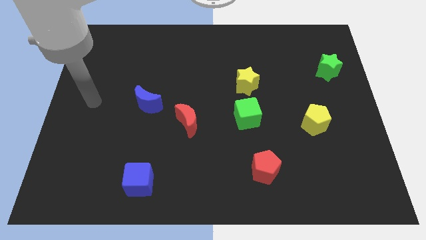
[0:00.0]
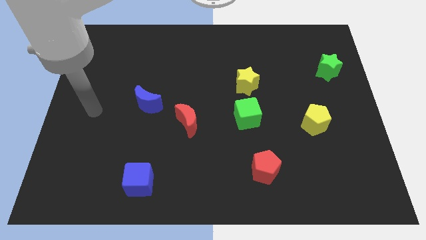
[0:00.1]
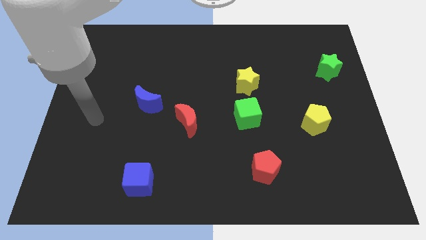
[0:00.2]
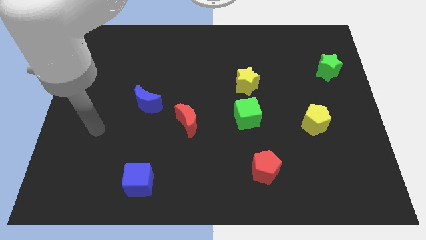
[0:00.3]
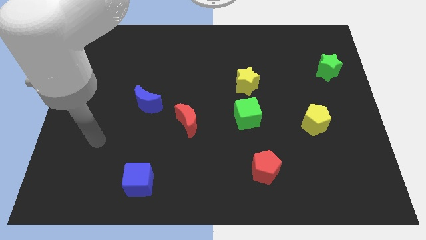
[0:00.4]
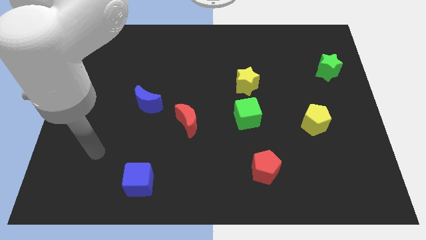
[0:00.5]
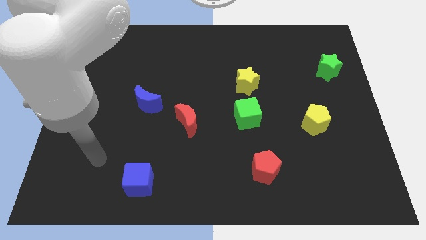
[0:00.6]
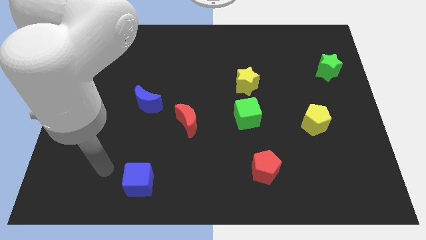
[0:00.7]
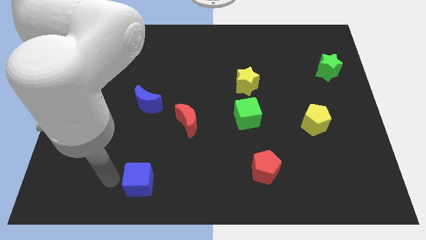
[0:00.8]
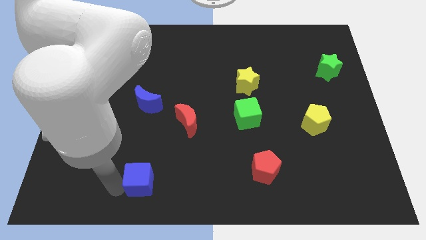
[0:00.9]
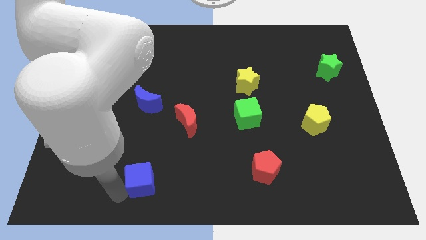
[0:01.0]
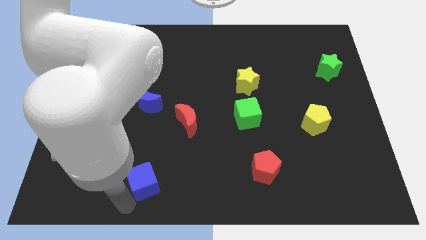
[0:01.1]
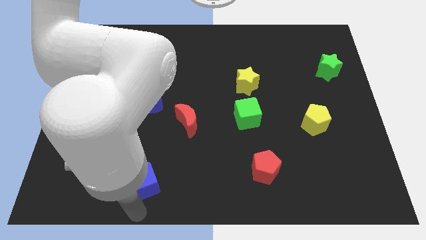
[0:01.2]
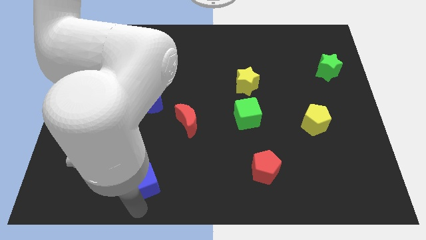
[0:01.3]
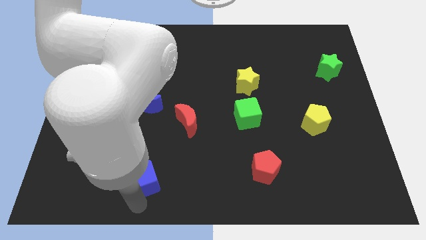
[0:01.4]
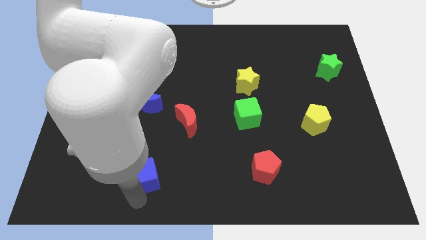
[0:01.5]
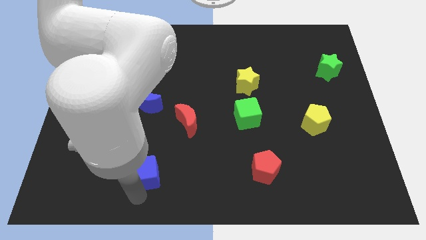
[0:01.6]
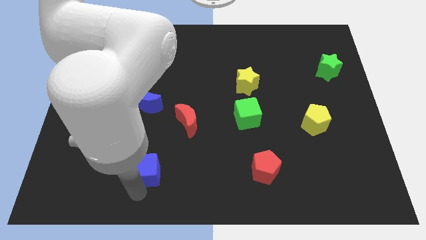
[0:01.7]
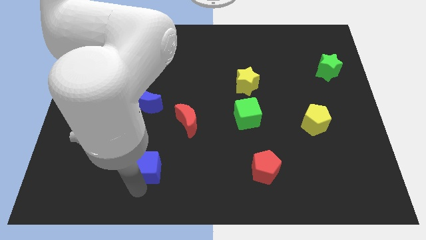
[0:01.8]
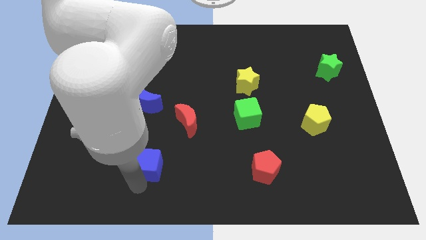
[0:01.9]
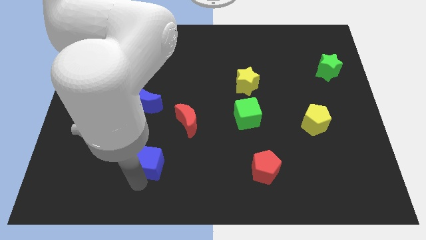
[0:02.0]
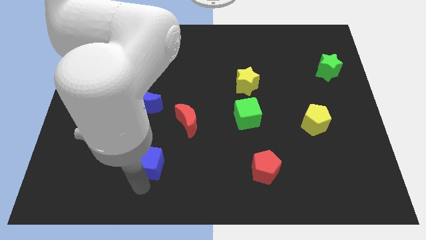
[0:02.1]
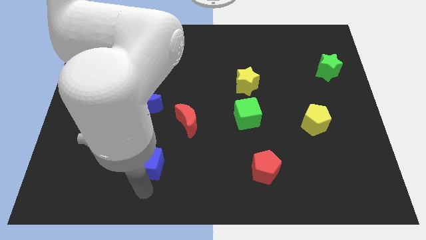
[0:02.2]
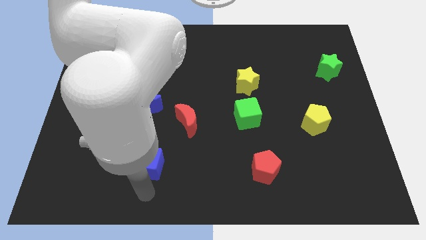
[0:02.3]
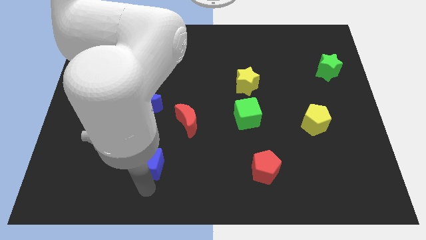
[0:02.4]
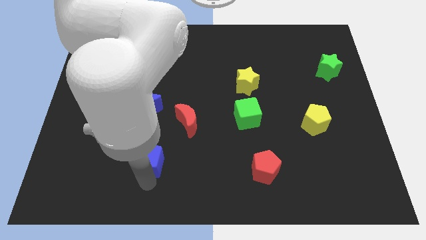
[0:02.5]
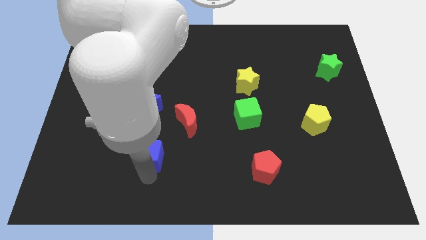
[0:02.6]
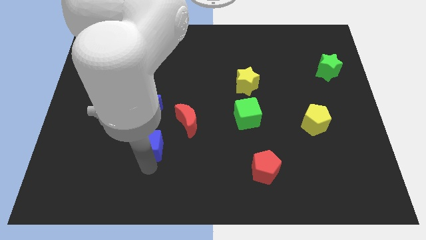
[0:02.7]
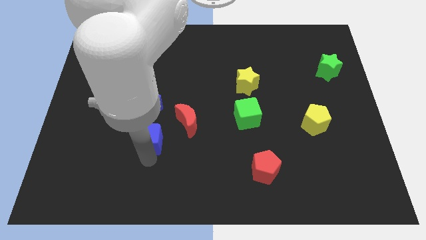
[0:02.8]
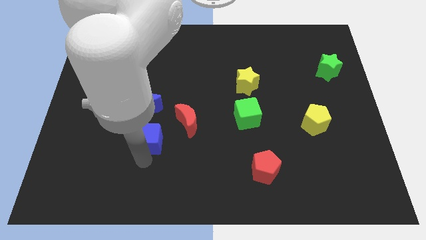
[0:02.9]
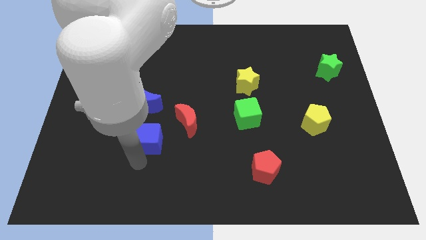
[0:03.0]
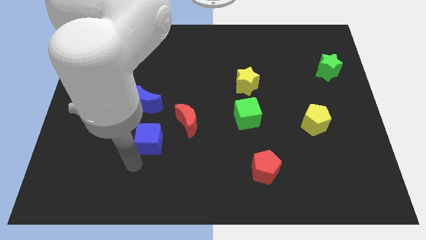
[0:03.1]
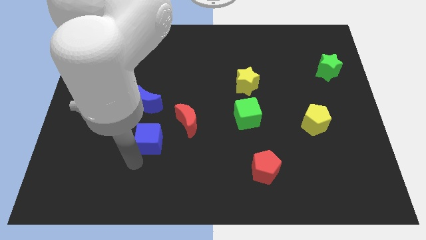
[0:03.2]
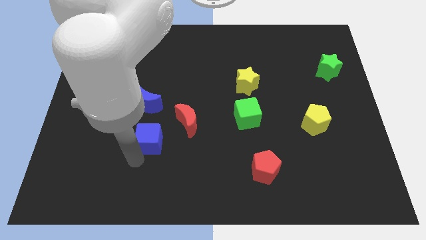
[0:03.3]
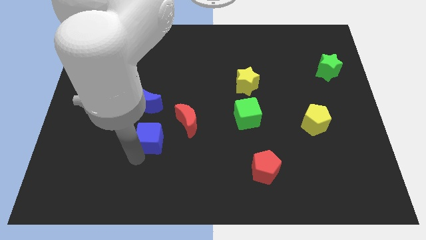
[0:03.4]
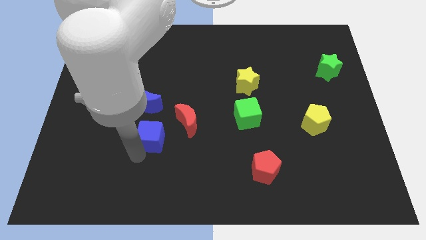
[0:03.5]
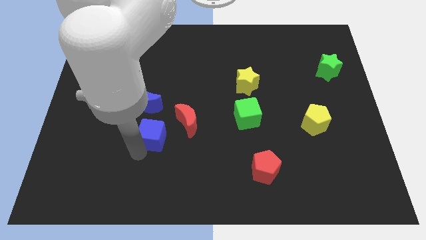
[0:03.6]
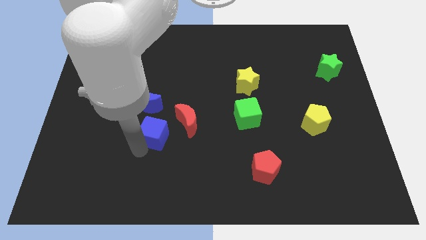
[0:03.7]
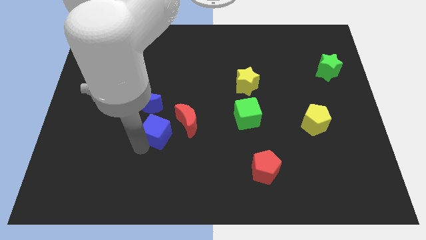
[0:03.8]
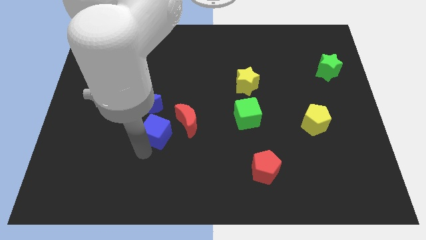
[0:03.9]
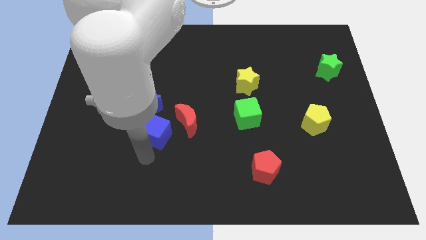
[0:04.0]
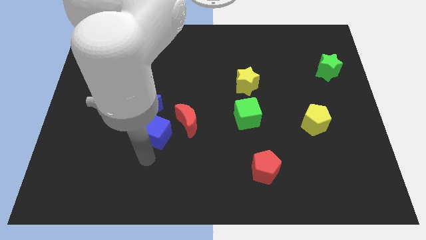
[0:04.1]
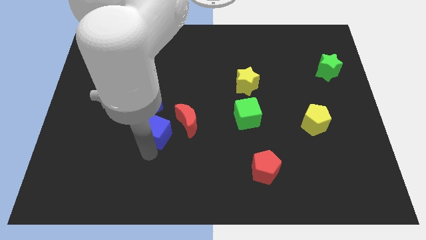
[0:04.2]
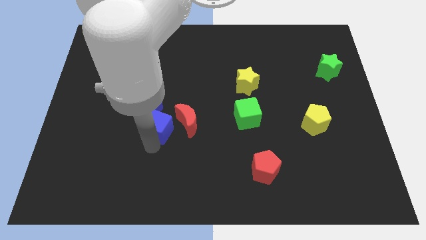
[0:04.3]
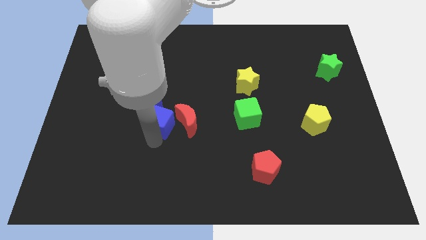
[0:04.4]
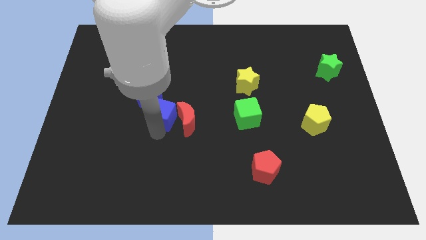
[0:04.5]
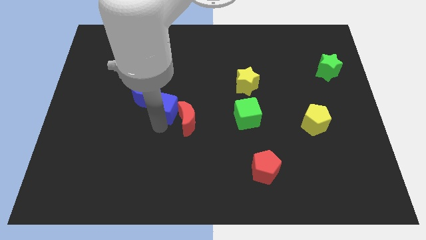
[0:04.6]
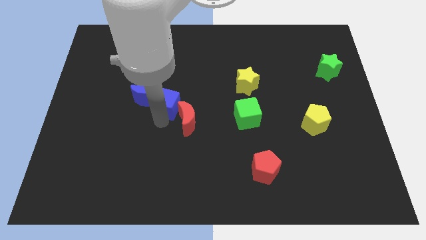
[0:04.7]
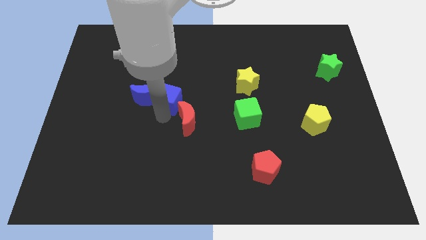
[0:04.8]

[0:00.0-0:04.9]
push the blue cube up

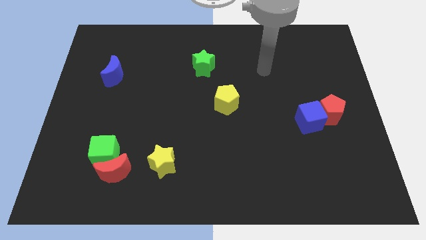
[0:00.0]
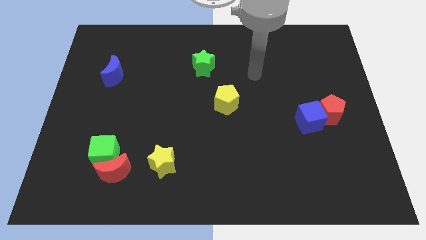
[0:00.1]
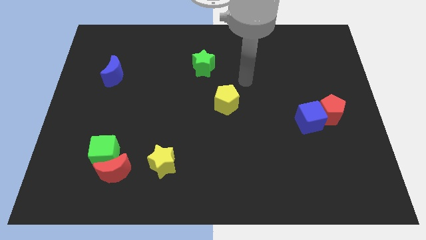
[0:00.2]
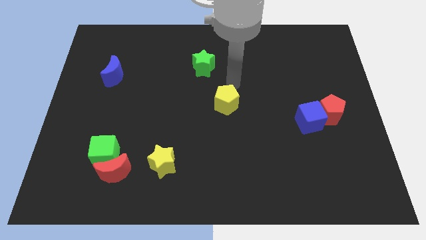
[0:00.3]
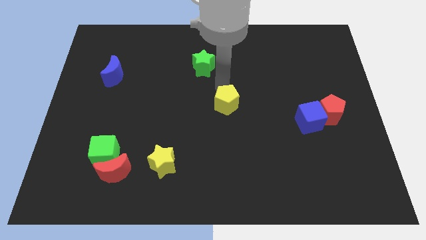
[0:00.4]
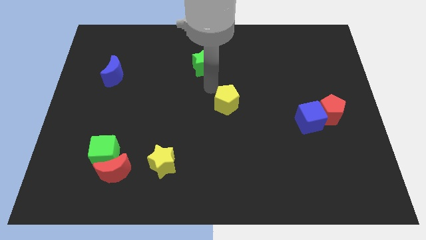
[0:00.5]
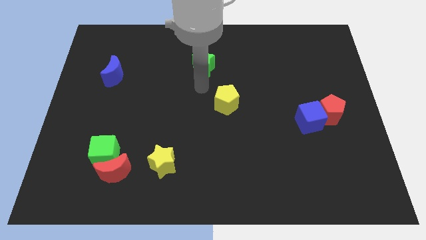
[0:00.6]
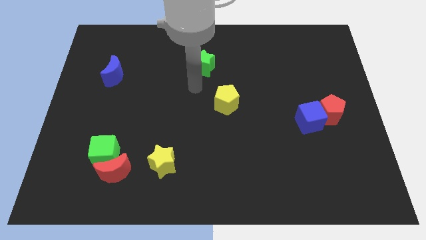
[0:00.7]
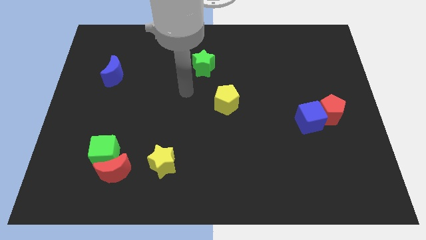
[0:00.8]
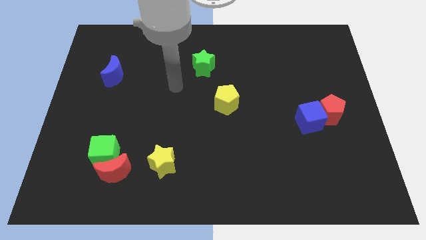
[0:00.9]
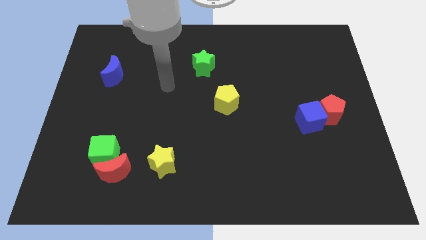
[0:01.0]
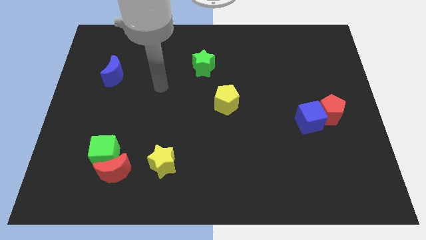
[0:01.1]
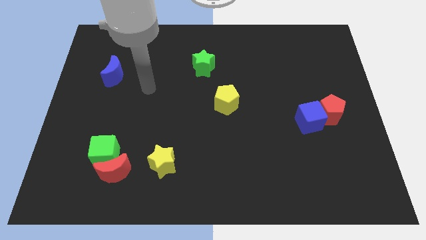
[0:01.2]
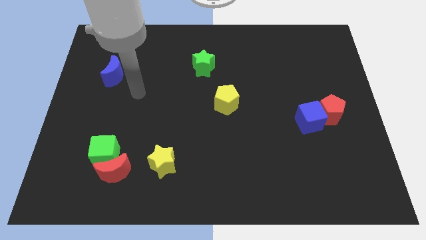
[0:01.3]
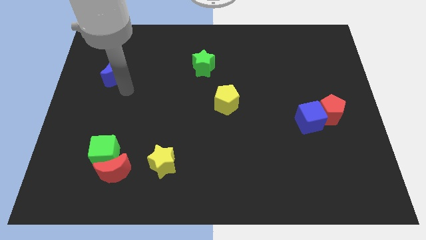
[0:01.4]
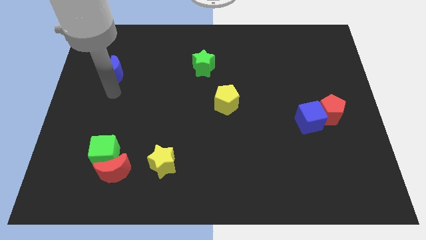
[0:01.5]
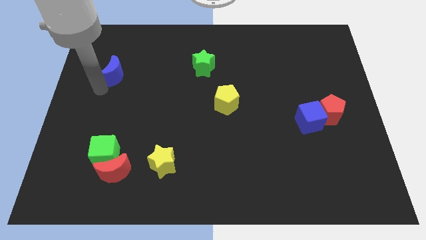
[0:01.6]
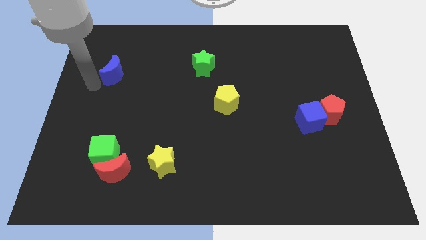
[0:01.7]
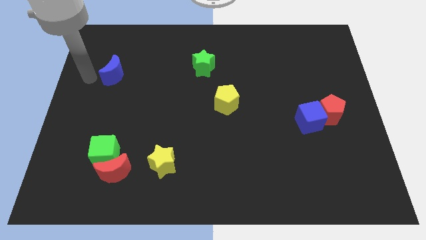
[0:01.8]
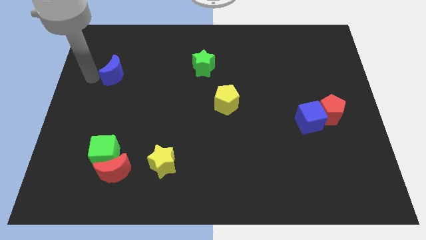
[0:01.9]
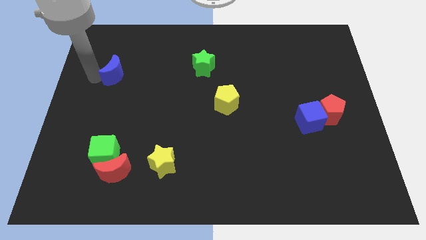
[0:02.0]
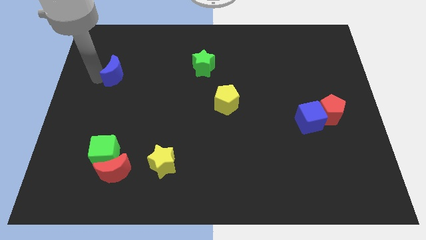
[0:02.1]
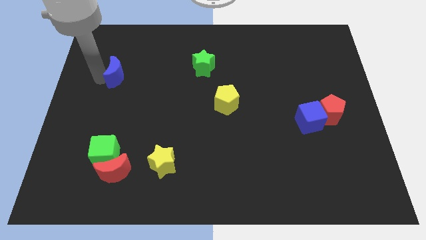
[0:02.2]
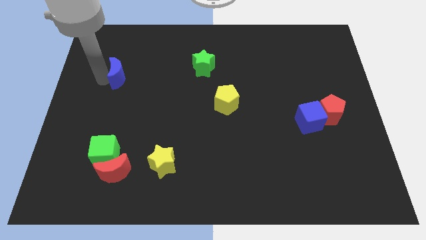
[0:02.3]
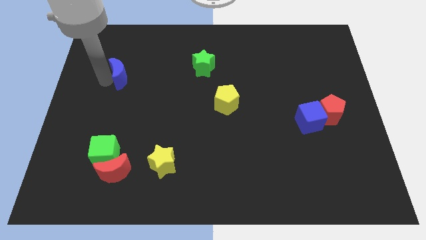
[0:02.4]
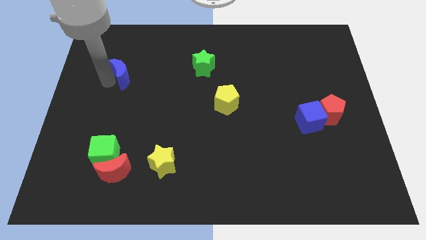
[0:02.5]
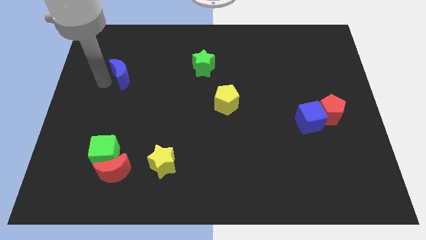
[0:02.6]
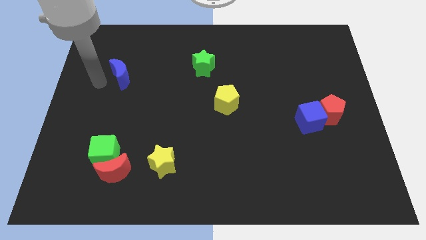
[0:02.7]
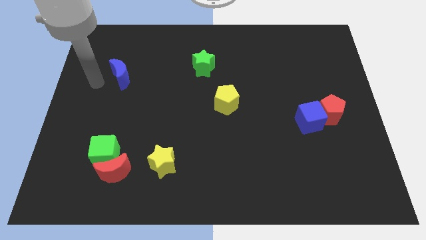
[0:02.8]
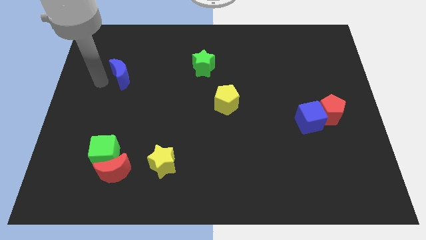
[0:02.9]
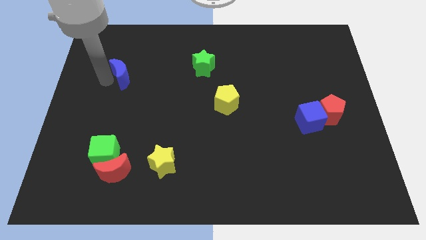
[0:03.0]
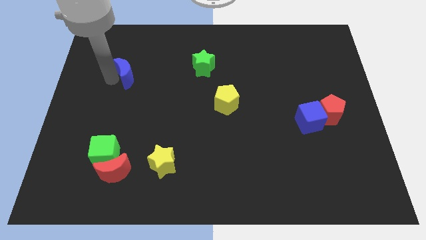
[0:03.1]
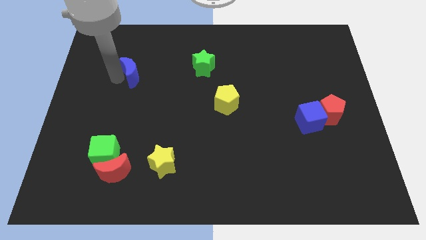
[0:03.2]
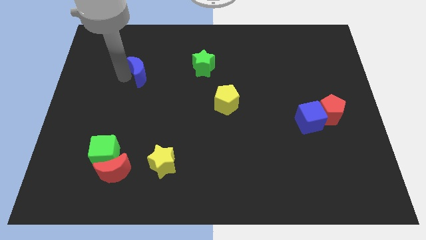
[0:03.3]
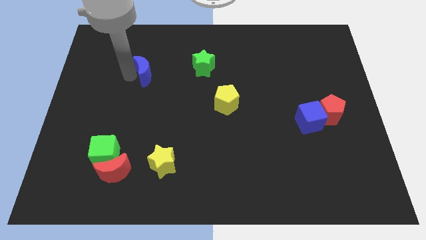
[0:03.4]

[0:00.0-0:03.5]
push the blue moon slightly to the right

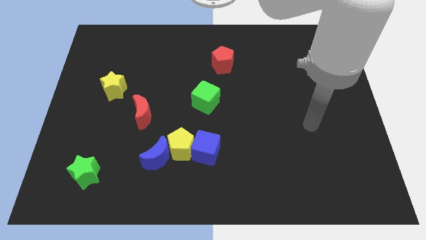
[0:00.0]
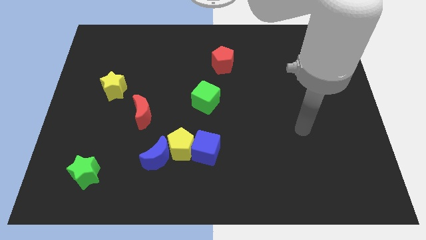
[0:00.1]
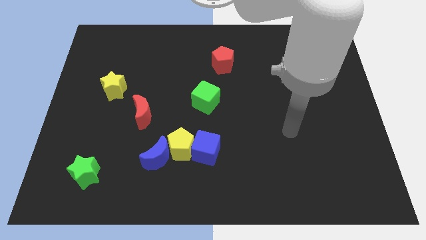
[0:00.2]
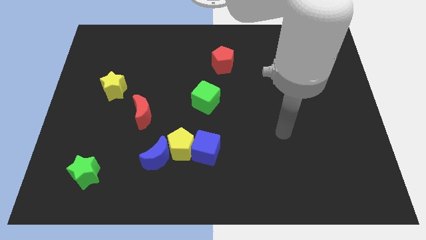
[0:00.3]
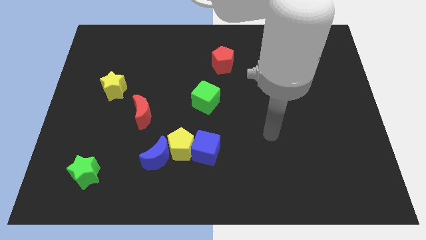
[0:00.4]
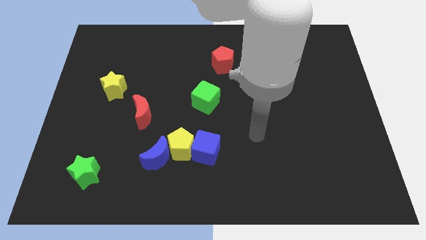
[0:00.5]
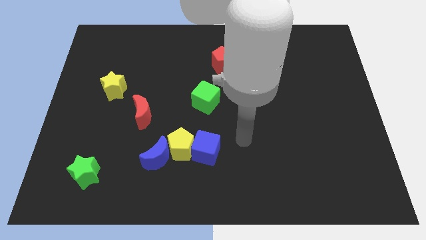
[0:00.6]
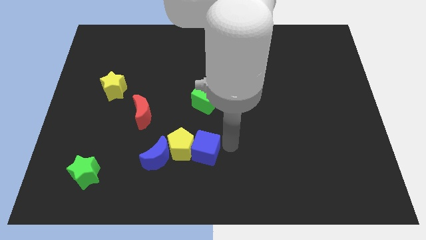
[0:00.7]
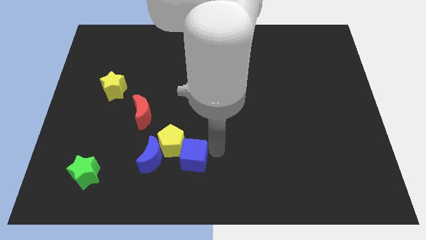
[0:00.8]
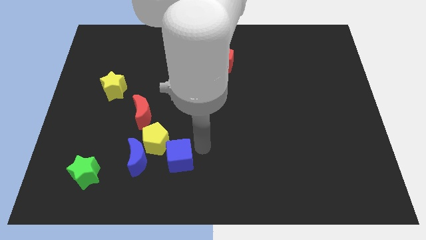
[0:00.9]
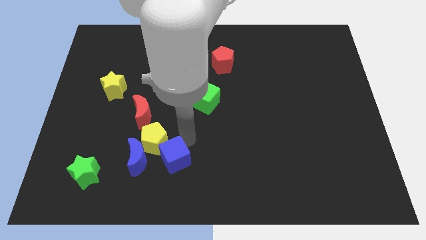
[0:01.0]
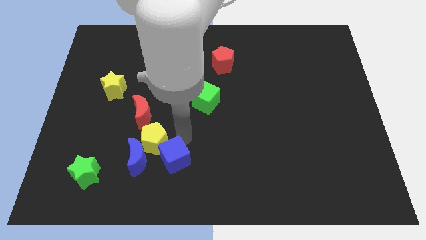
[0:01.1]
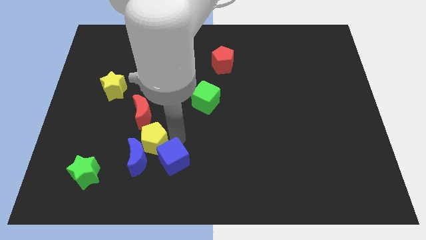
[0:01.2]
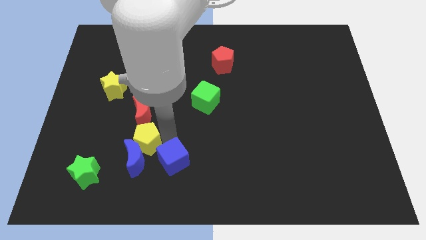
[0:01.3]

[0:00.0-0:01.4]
slide the yellow pentagon left slightly
